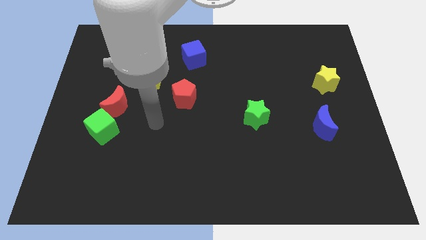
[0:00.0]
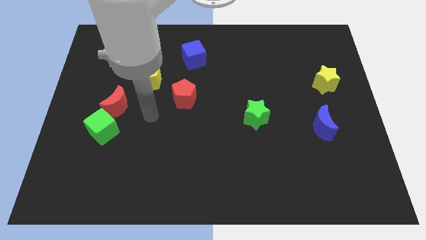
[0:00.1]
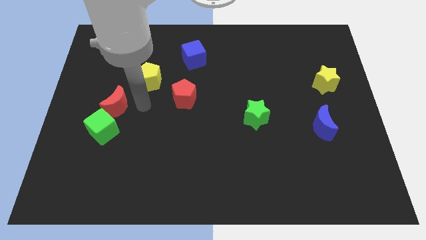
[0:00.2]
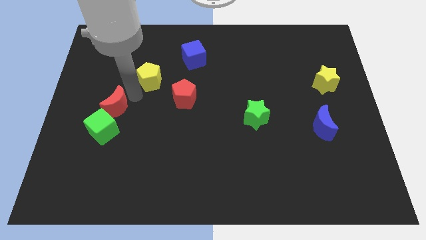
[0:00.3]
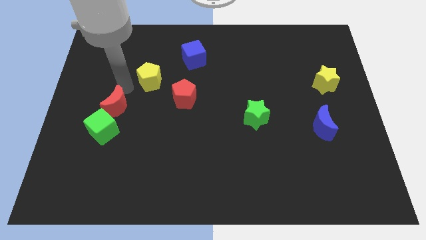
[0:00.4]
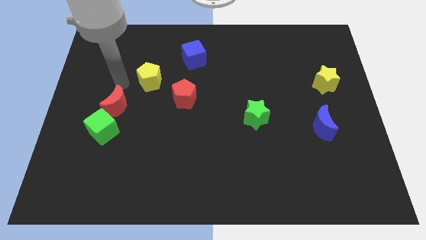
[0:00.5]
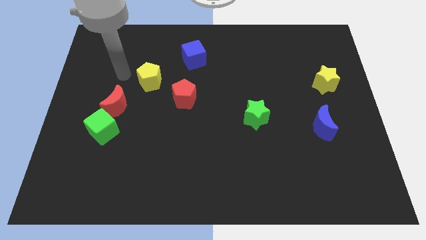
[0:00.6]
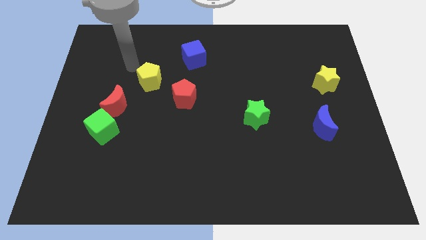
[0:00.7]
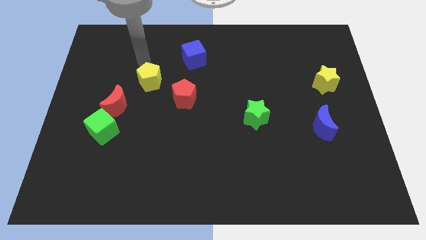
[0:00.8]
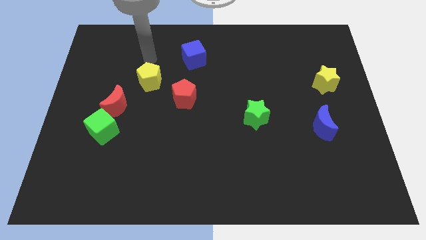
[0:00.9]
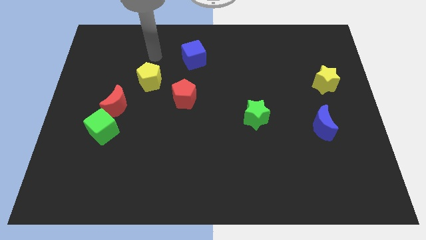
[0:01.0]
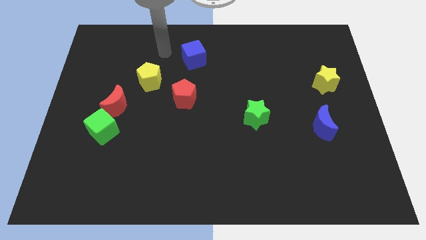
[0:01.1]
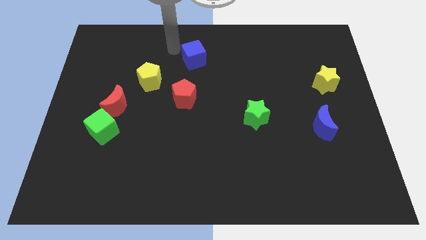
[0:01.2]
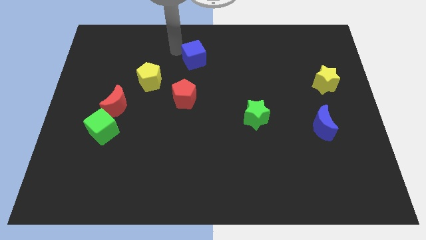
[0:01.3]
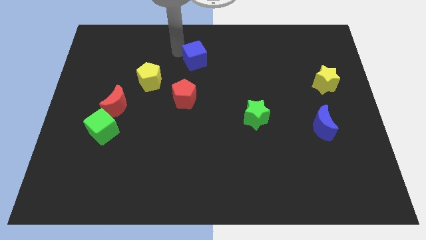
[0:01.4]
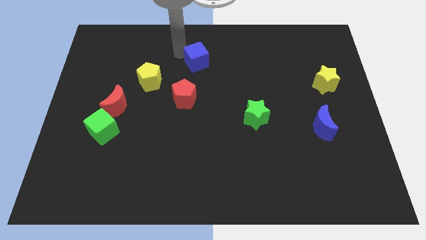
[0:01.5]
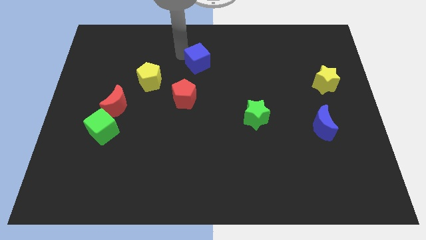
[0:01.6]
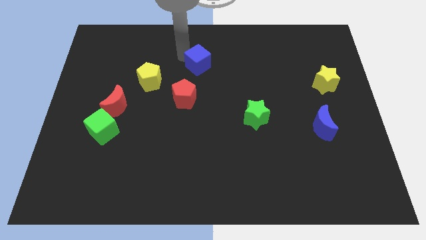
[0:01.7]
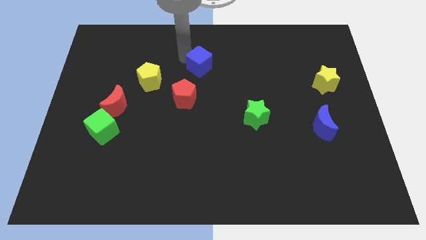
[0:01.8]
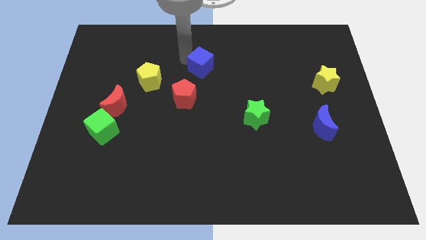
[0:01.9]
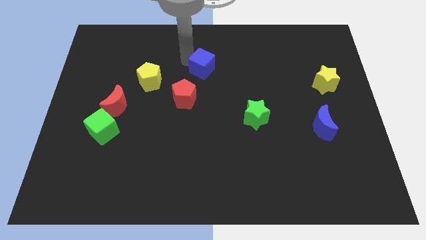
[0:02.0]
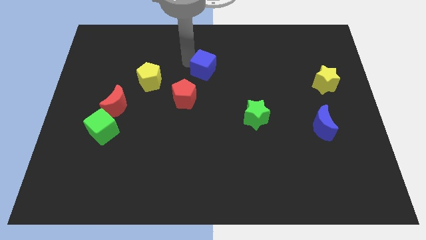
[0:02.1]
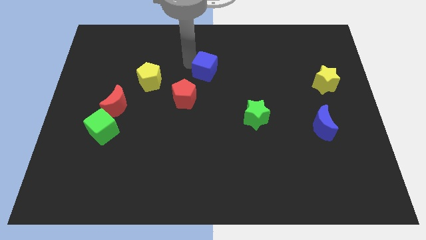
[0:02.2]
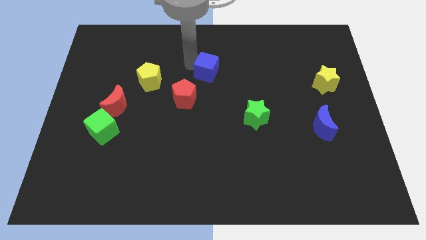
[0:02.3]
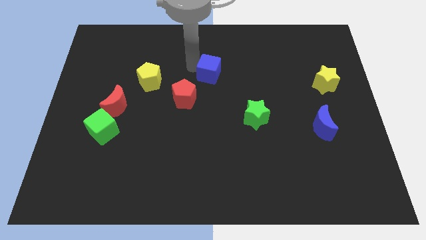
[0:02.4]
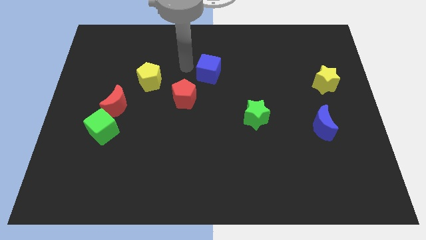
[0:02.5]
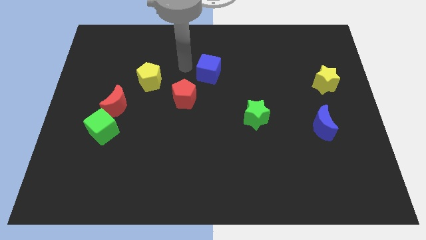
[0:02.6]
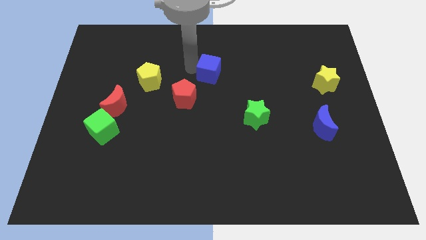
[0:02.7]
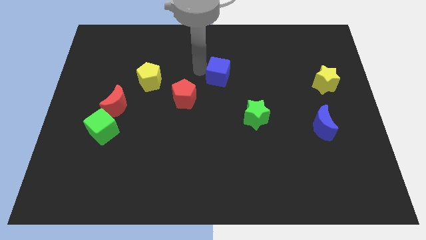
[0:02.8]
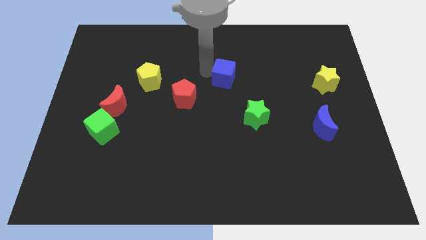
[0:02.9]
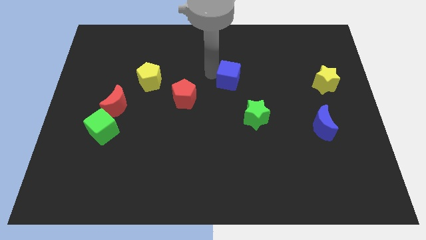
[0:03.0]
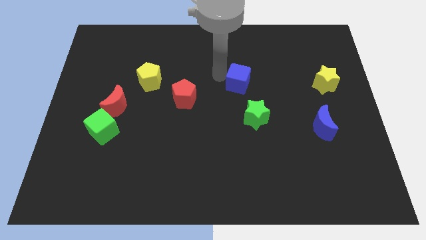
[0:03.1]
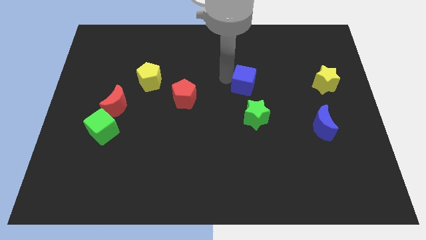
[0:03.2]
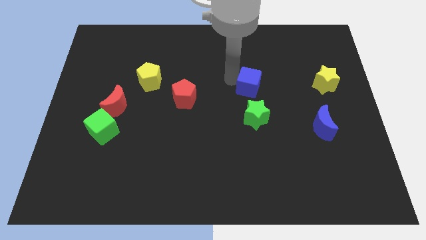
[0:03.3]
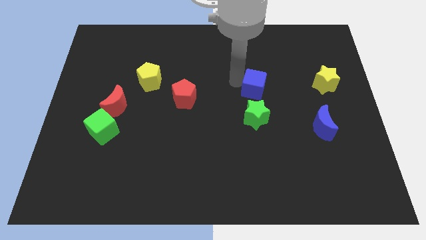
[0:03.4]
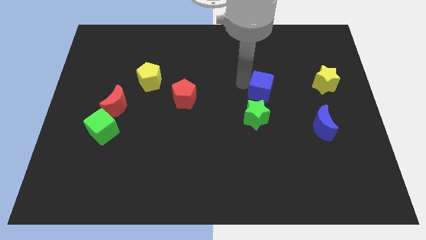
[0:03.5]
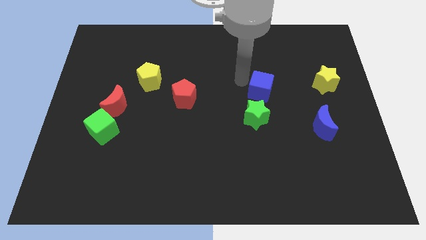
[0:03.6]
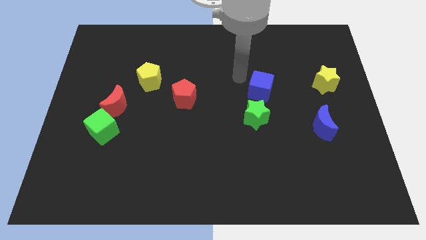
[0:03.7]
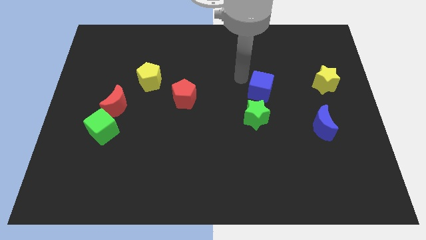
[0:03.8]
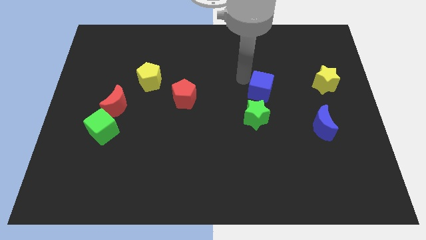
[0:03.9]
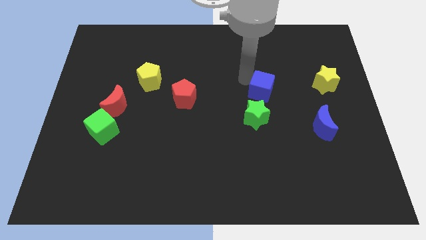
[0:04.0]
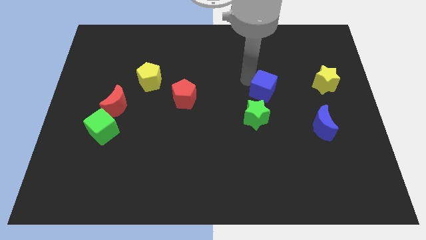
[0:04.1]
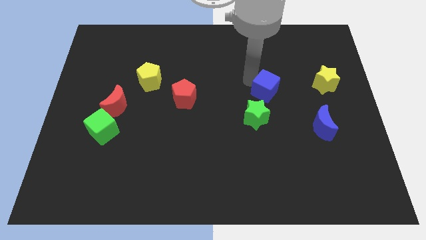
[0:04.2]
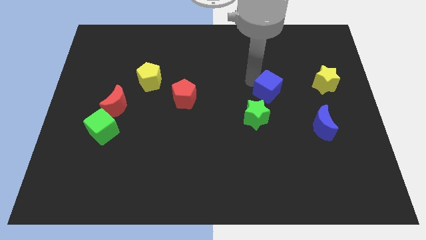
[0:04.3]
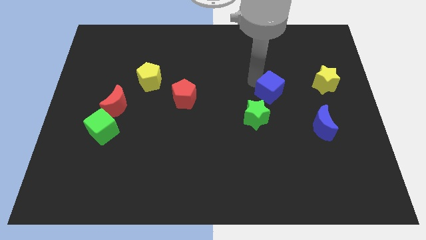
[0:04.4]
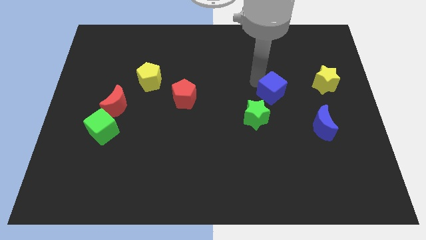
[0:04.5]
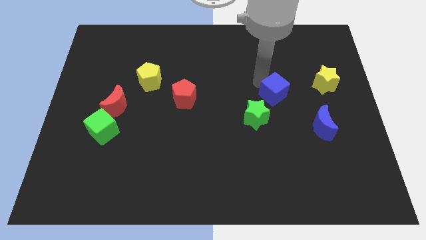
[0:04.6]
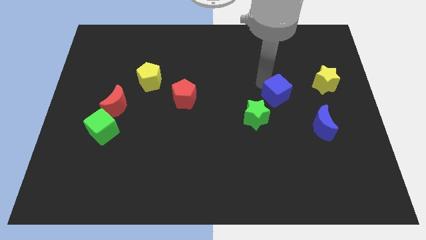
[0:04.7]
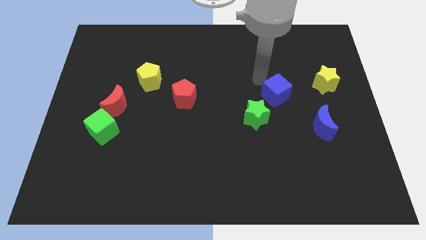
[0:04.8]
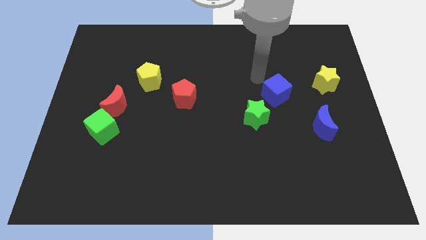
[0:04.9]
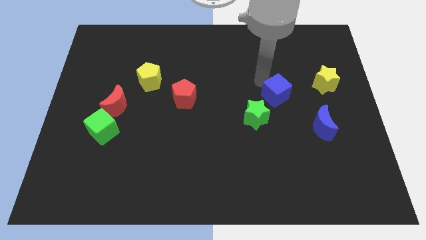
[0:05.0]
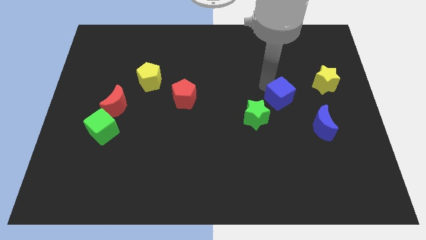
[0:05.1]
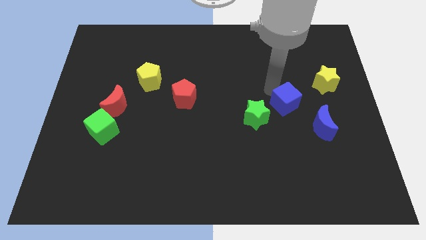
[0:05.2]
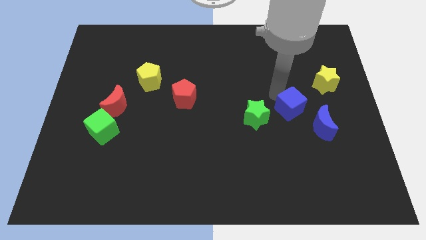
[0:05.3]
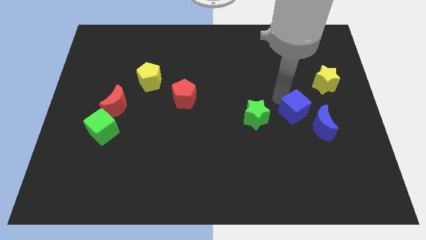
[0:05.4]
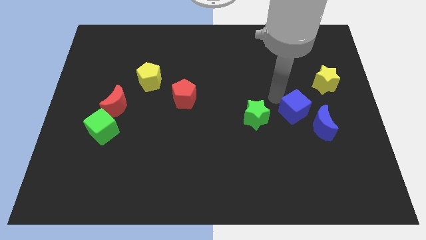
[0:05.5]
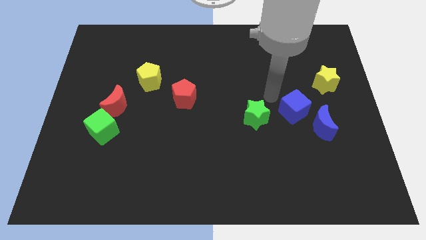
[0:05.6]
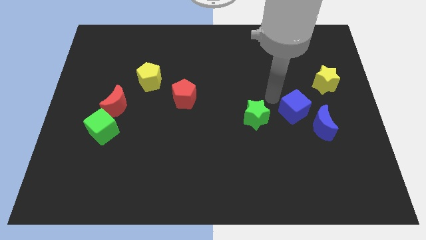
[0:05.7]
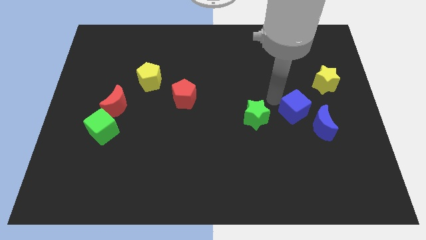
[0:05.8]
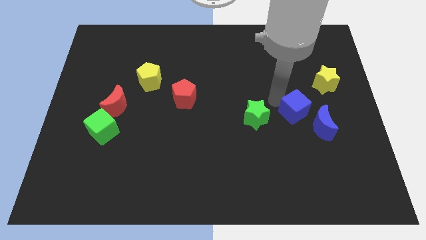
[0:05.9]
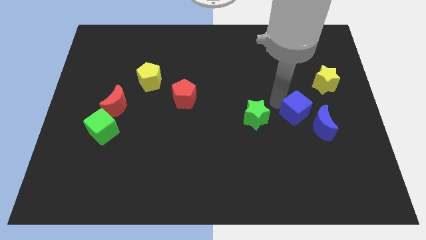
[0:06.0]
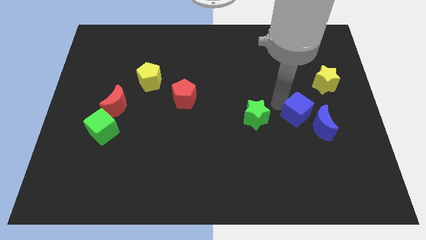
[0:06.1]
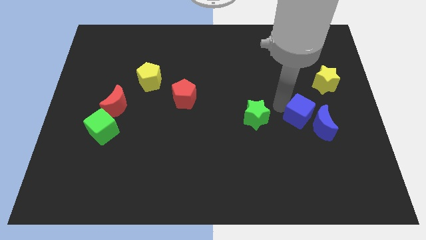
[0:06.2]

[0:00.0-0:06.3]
move the blue cube to the blue moon

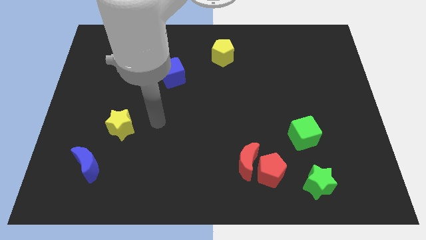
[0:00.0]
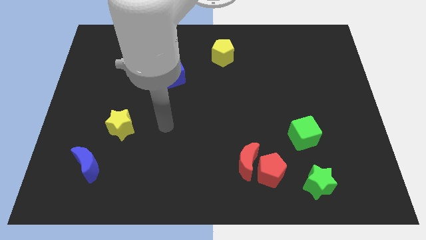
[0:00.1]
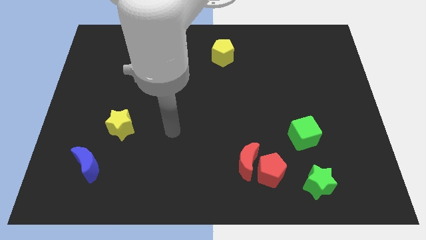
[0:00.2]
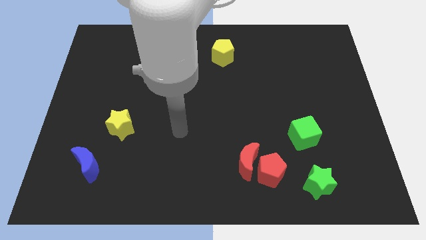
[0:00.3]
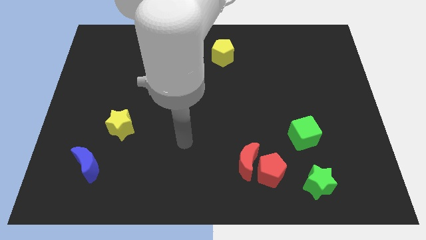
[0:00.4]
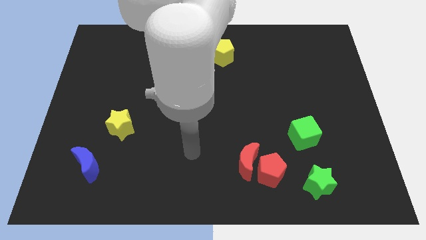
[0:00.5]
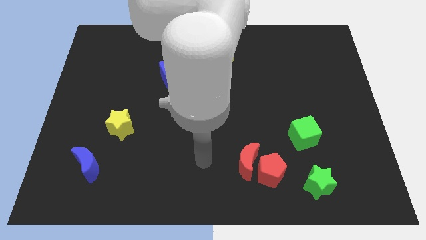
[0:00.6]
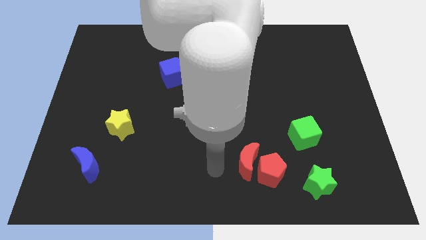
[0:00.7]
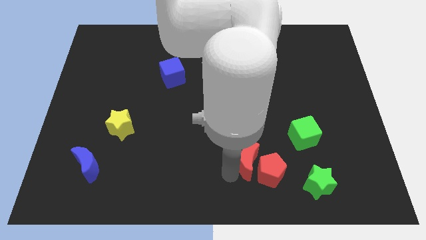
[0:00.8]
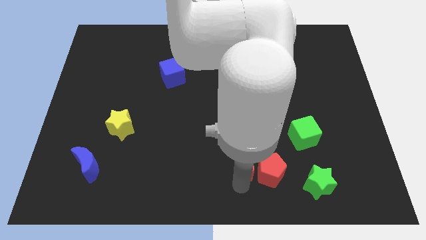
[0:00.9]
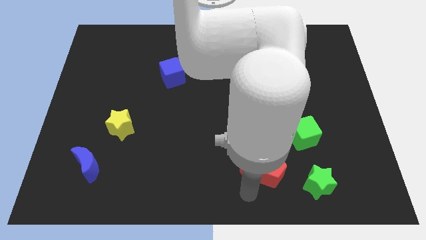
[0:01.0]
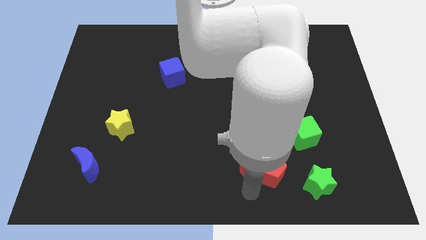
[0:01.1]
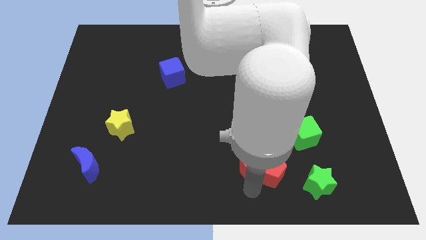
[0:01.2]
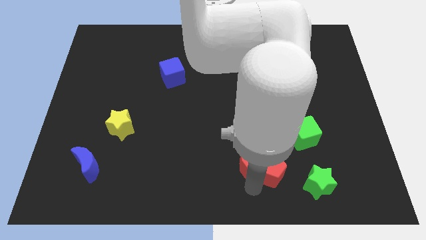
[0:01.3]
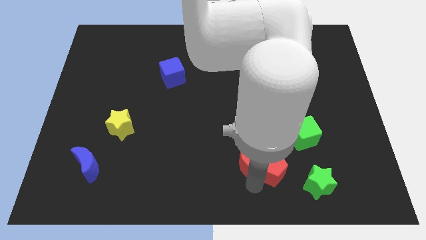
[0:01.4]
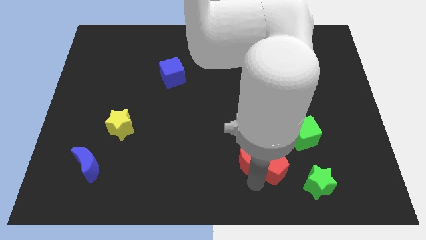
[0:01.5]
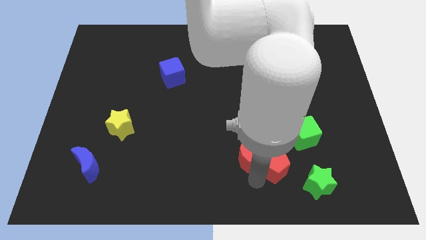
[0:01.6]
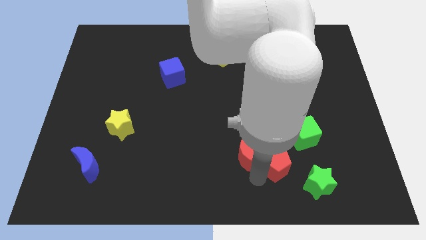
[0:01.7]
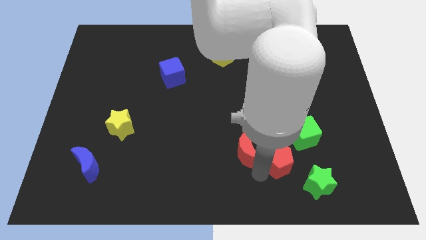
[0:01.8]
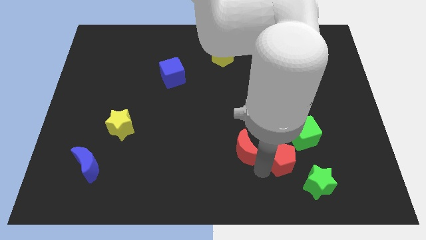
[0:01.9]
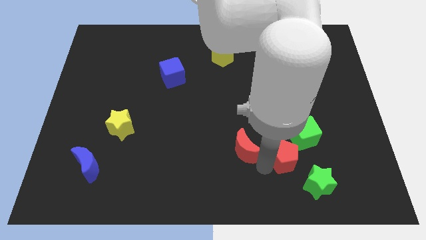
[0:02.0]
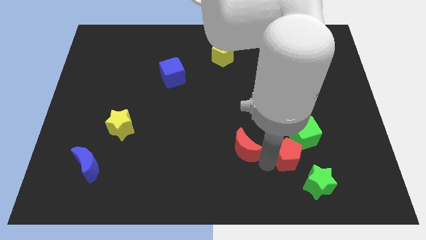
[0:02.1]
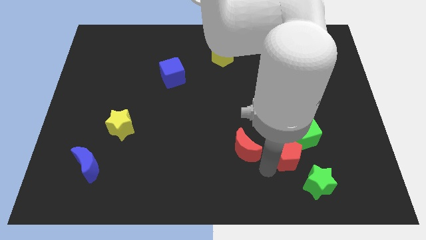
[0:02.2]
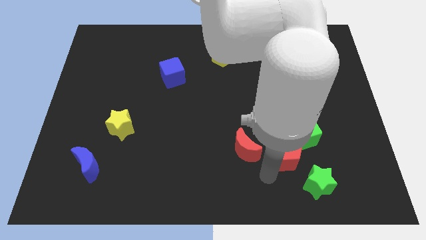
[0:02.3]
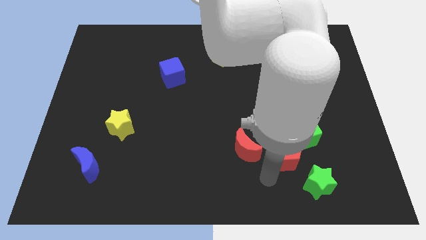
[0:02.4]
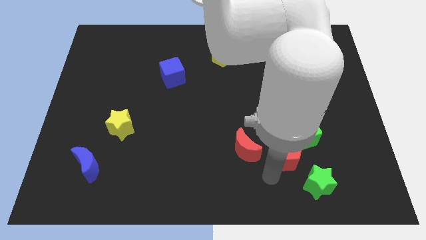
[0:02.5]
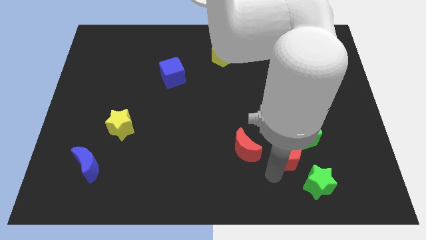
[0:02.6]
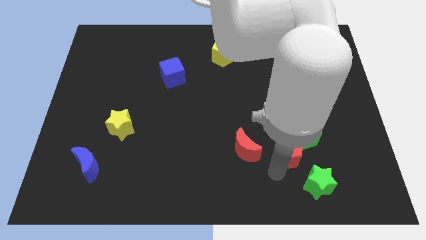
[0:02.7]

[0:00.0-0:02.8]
put the red pentagon next to the green cube
